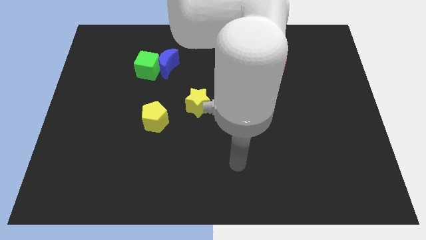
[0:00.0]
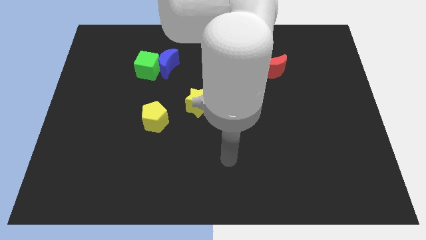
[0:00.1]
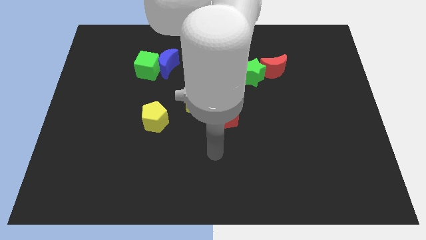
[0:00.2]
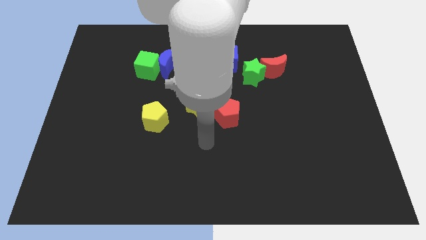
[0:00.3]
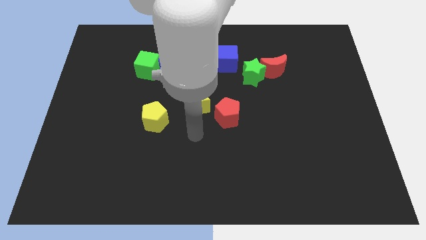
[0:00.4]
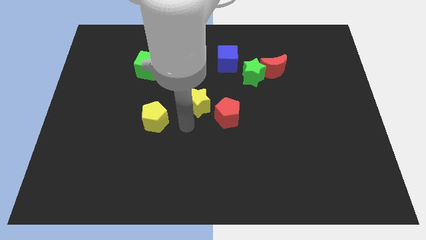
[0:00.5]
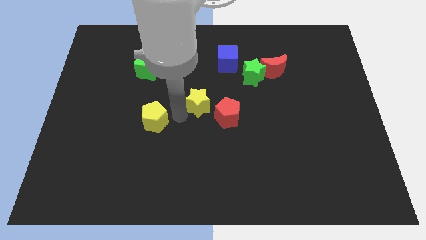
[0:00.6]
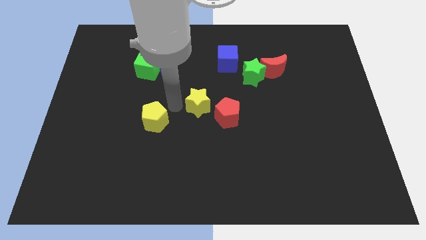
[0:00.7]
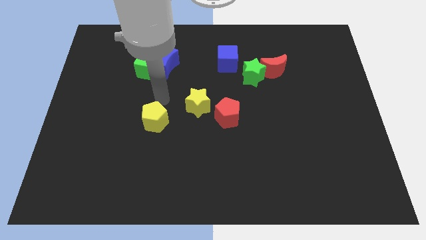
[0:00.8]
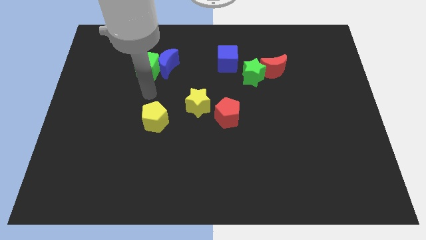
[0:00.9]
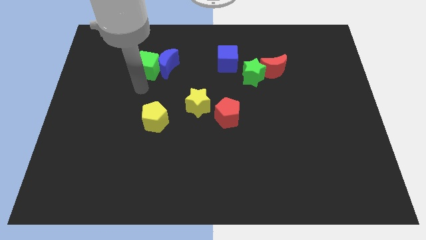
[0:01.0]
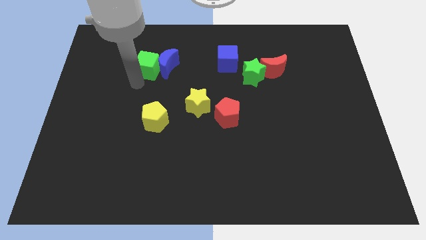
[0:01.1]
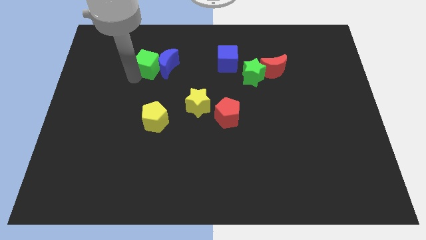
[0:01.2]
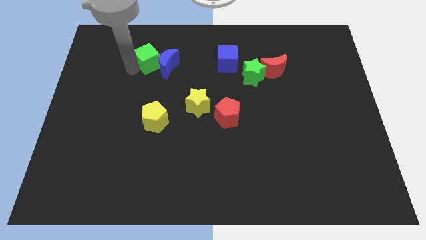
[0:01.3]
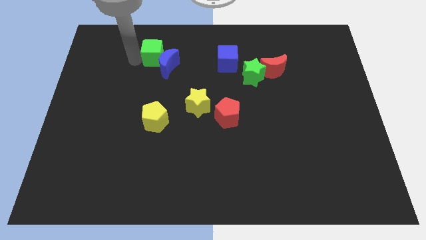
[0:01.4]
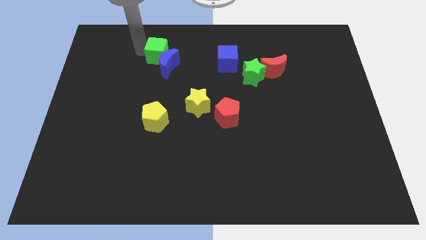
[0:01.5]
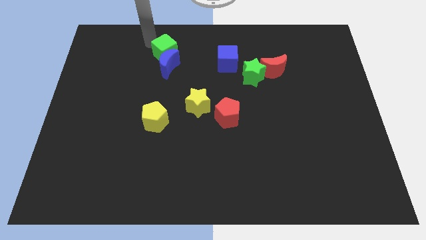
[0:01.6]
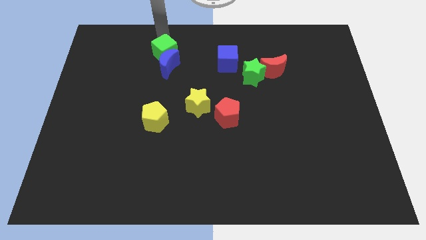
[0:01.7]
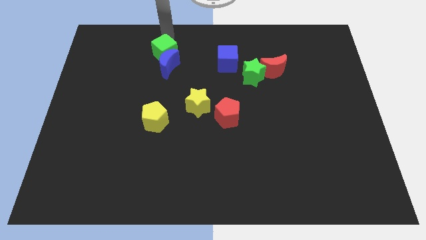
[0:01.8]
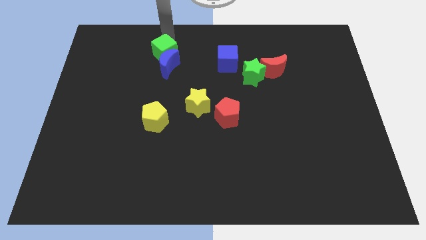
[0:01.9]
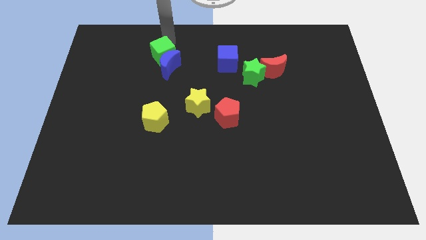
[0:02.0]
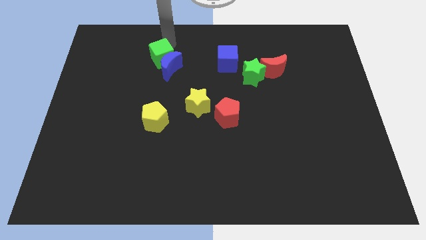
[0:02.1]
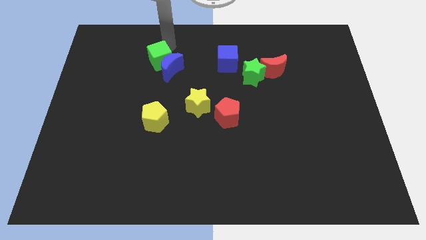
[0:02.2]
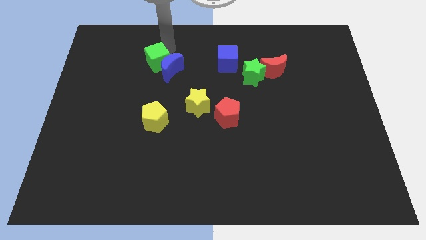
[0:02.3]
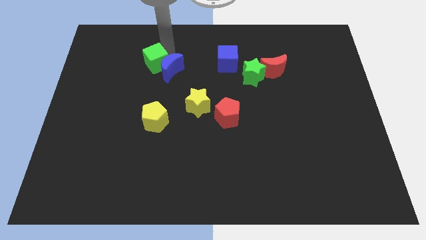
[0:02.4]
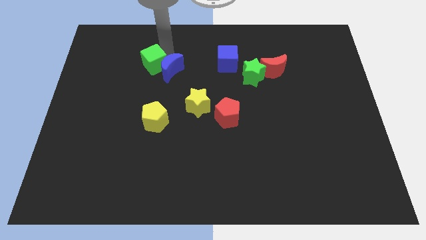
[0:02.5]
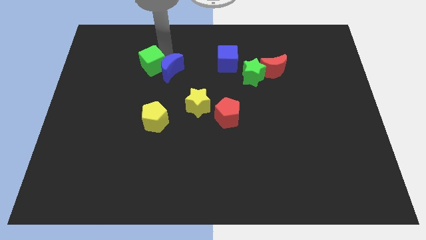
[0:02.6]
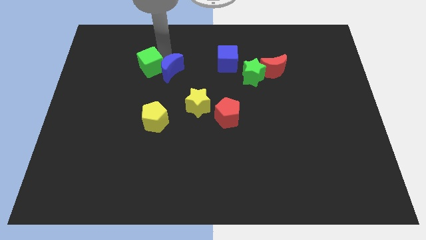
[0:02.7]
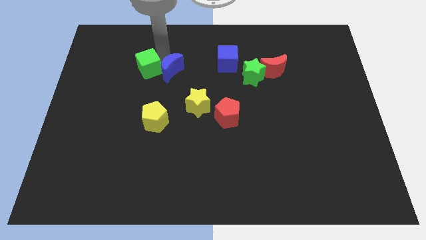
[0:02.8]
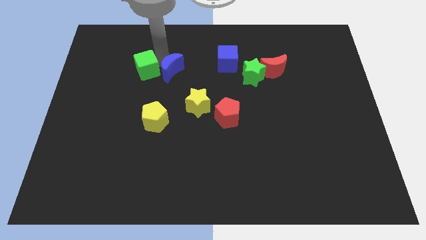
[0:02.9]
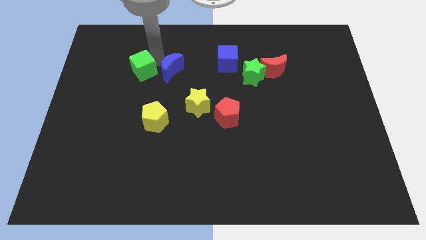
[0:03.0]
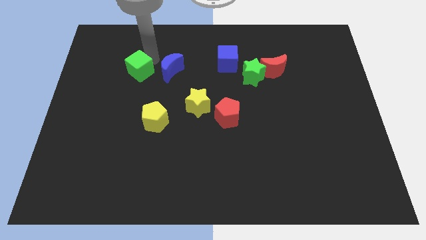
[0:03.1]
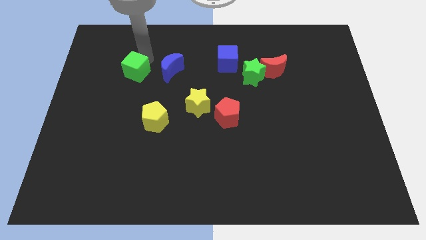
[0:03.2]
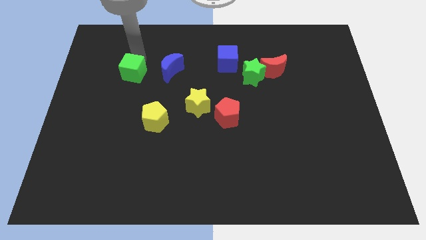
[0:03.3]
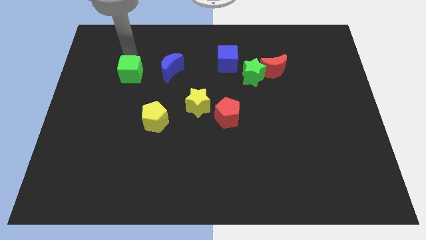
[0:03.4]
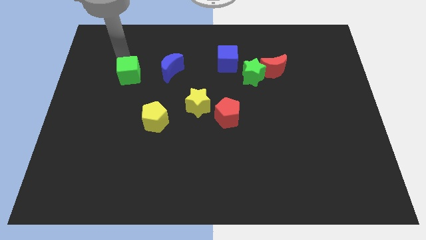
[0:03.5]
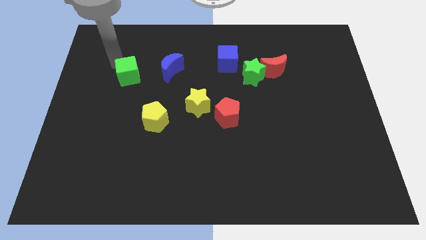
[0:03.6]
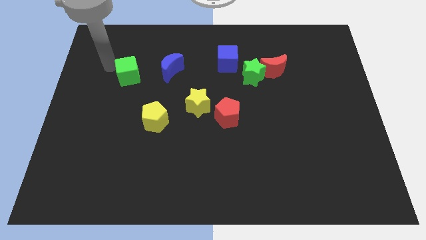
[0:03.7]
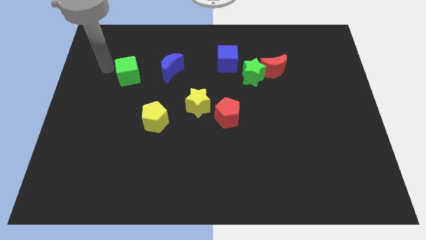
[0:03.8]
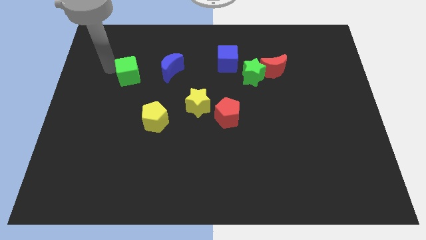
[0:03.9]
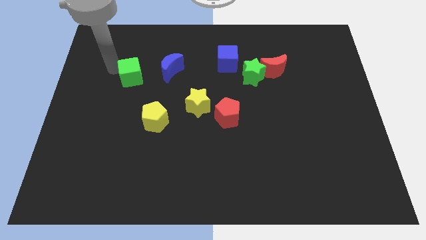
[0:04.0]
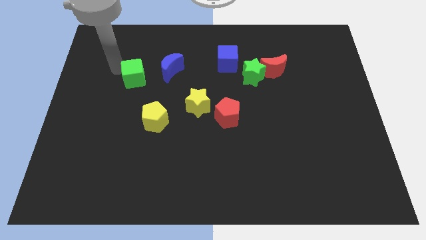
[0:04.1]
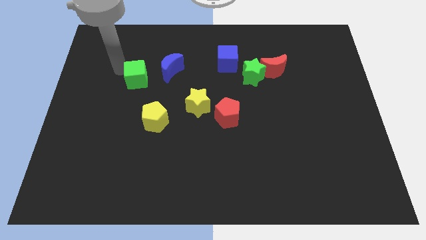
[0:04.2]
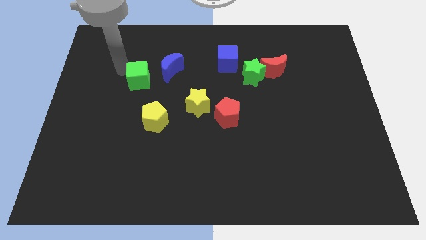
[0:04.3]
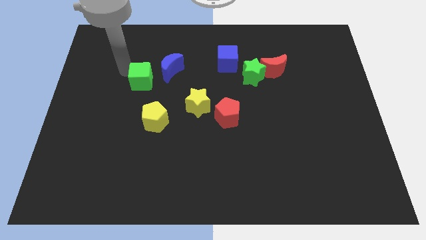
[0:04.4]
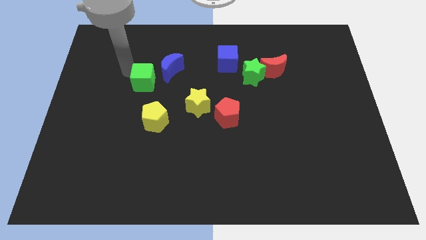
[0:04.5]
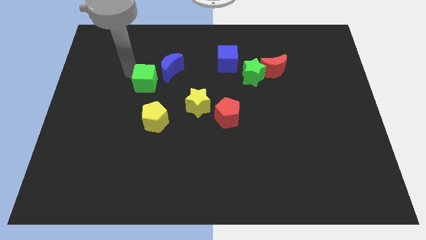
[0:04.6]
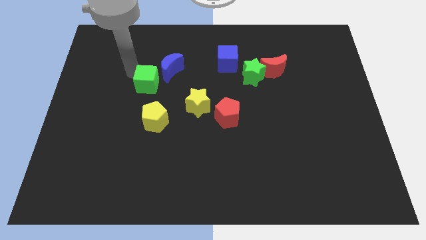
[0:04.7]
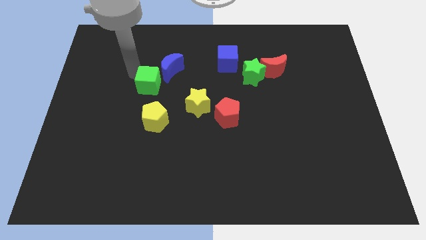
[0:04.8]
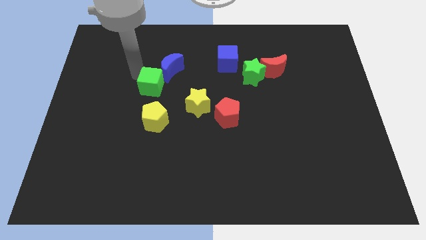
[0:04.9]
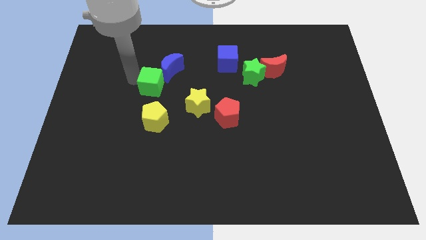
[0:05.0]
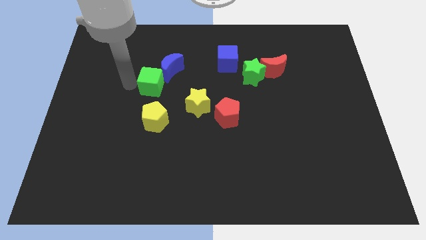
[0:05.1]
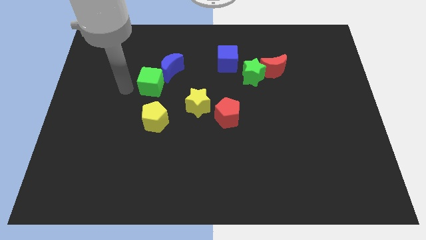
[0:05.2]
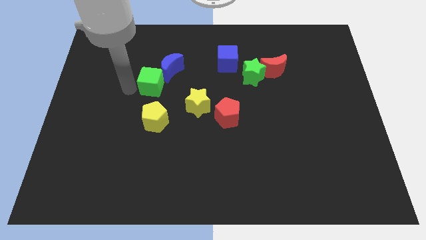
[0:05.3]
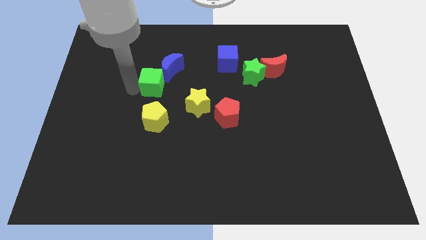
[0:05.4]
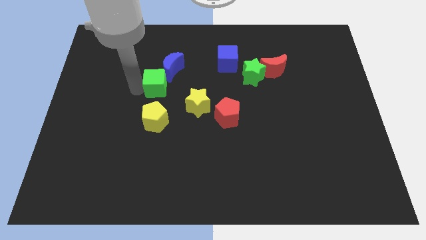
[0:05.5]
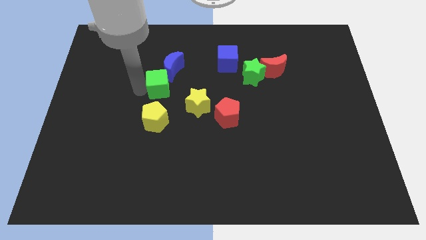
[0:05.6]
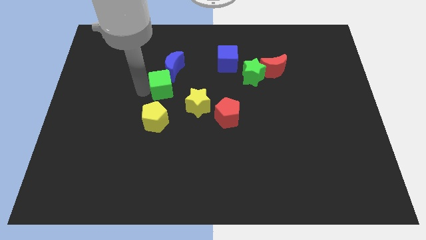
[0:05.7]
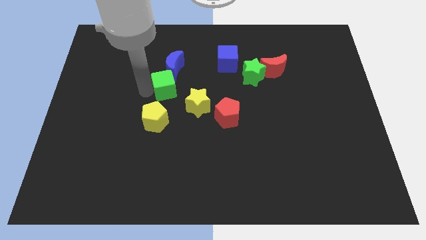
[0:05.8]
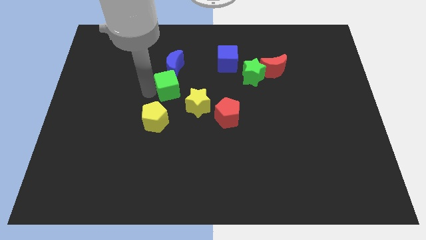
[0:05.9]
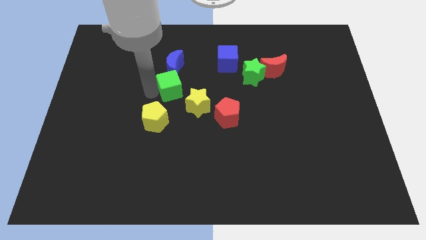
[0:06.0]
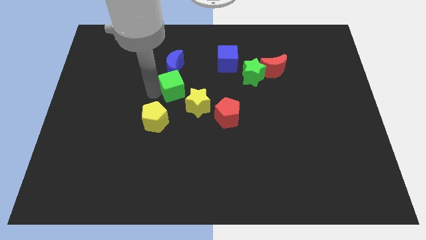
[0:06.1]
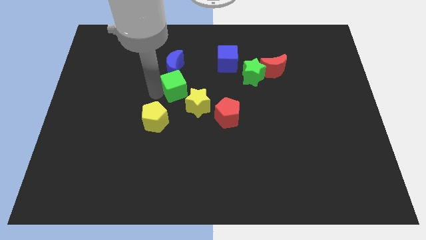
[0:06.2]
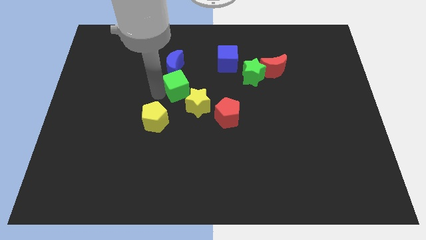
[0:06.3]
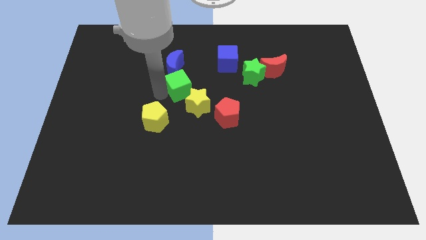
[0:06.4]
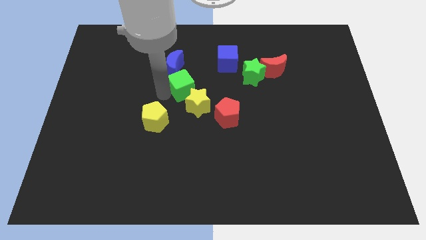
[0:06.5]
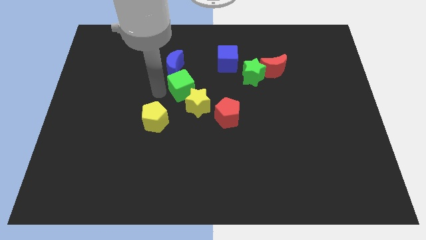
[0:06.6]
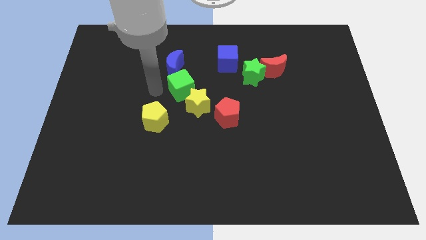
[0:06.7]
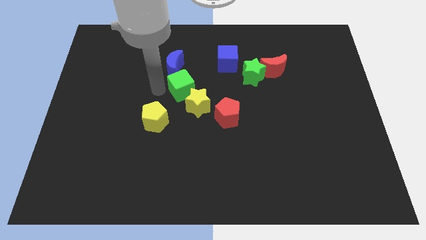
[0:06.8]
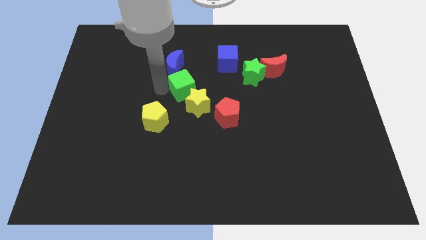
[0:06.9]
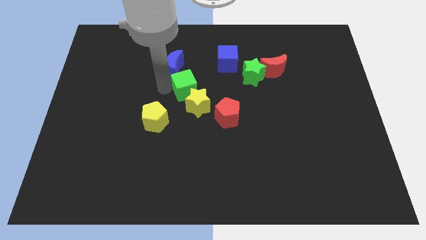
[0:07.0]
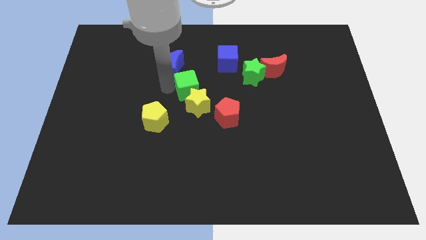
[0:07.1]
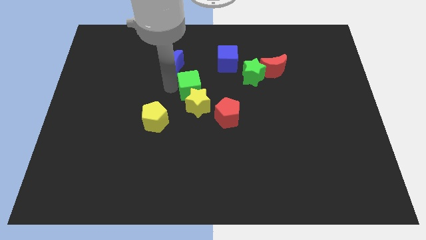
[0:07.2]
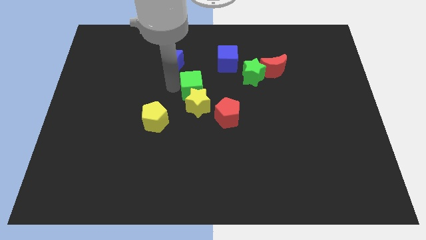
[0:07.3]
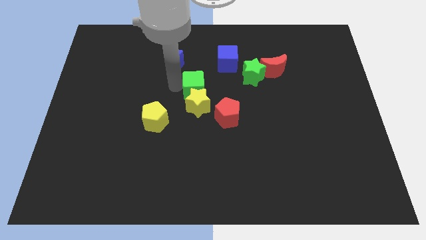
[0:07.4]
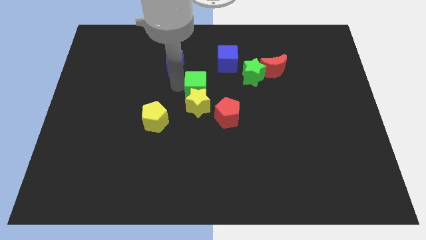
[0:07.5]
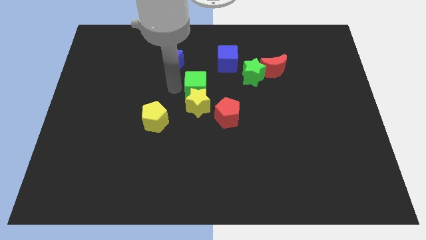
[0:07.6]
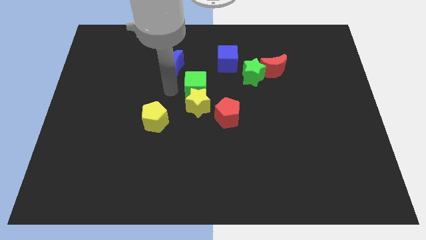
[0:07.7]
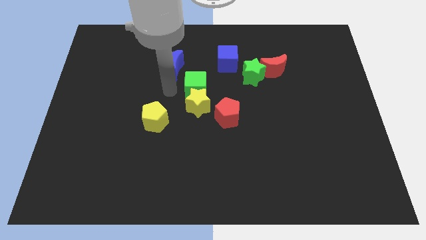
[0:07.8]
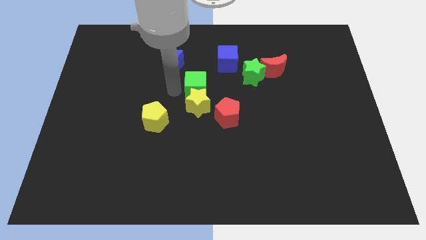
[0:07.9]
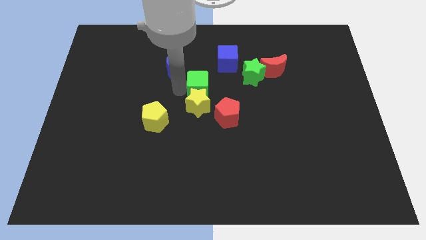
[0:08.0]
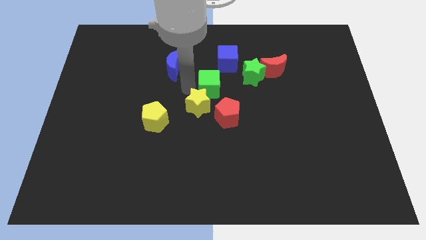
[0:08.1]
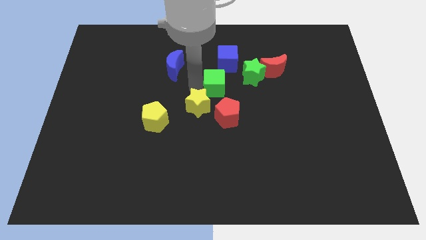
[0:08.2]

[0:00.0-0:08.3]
push the green cube diagonally down and to the left of the green star
